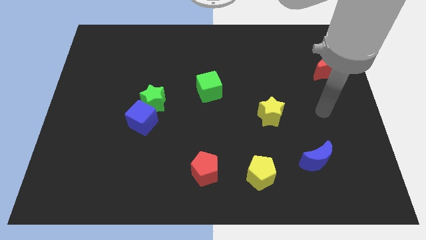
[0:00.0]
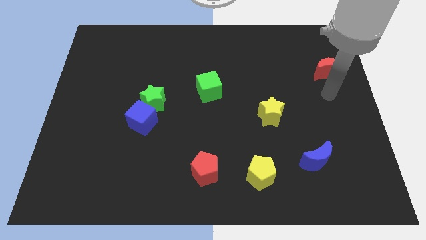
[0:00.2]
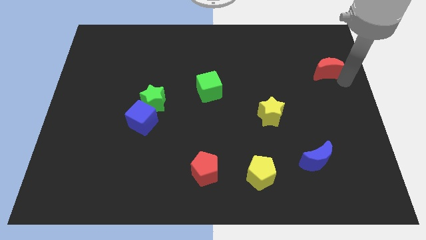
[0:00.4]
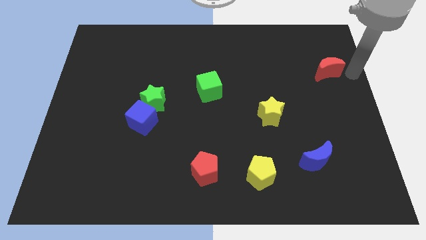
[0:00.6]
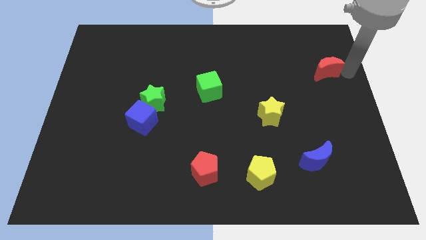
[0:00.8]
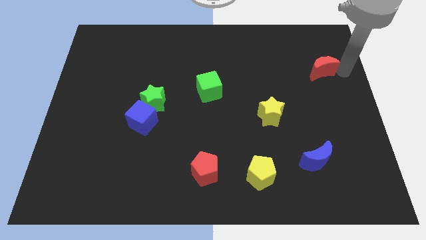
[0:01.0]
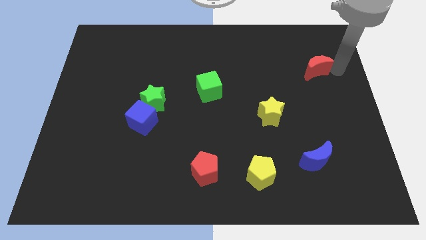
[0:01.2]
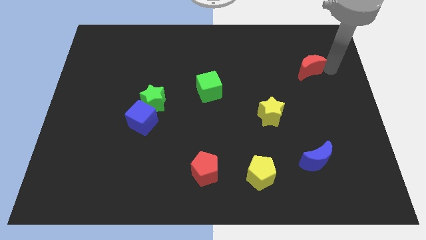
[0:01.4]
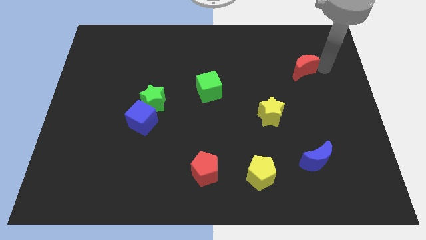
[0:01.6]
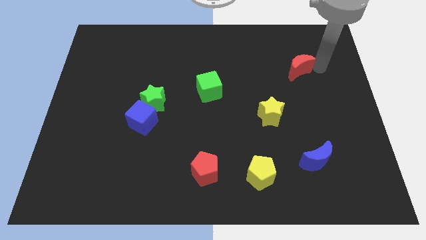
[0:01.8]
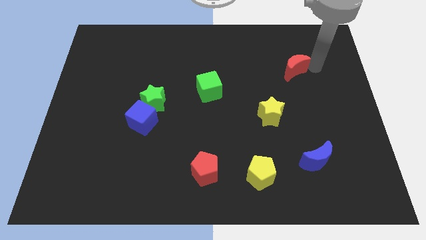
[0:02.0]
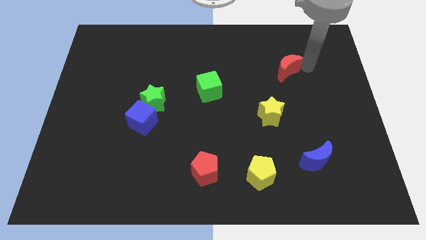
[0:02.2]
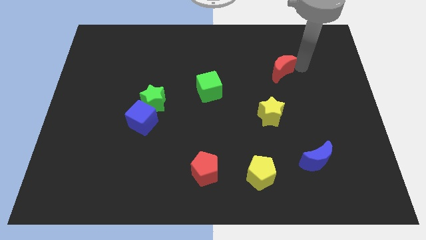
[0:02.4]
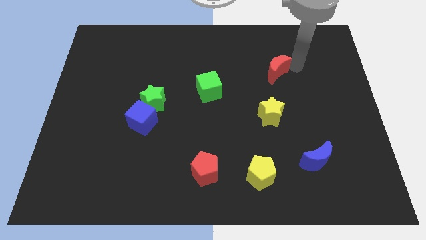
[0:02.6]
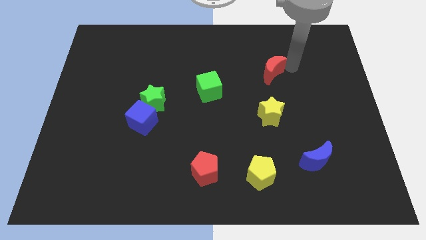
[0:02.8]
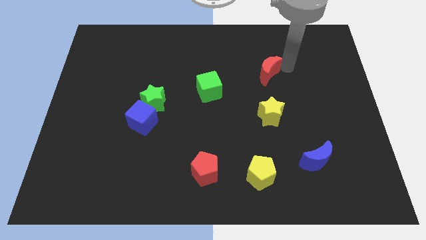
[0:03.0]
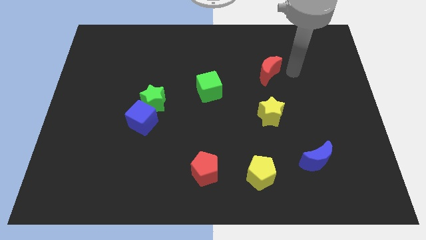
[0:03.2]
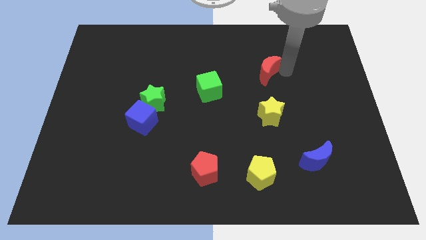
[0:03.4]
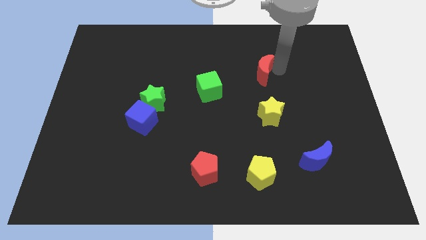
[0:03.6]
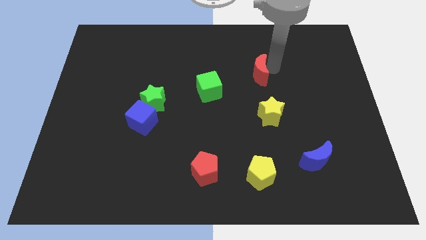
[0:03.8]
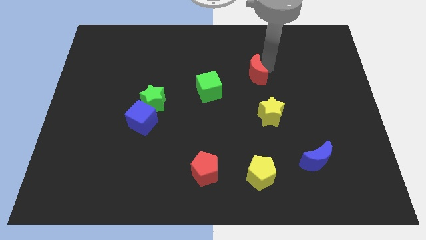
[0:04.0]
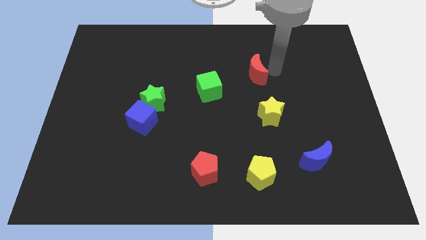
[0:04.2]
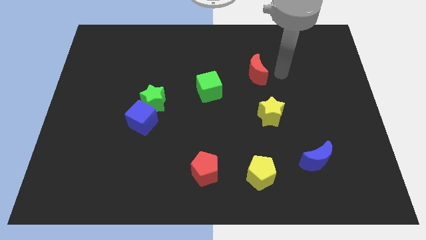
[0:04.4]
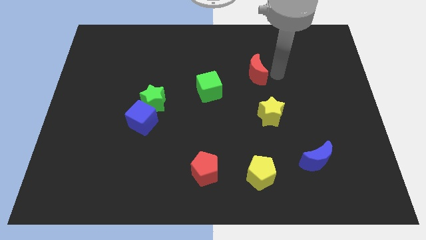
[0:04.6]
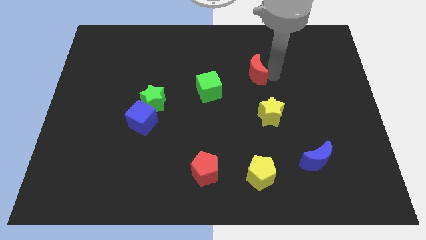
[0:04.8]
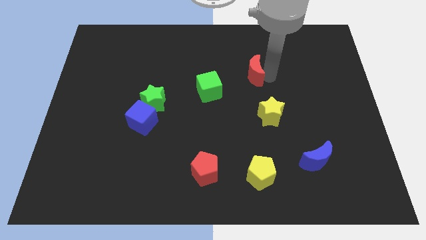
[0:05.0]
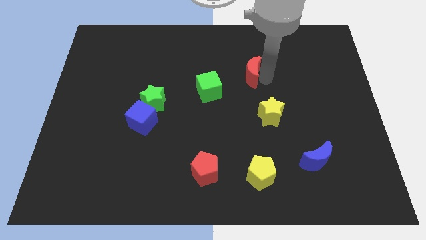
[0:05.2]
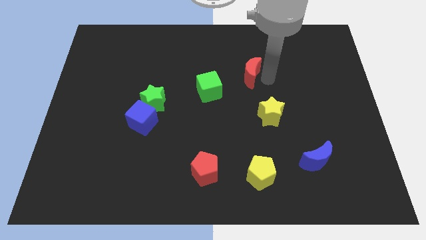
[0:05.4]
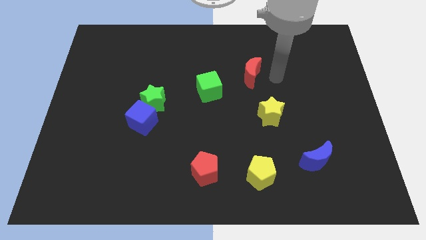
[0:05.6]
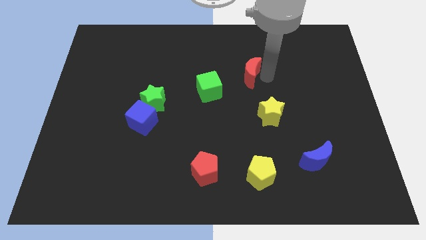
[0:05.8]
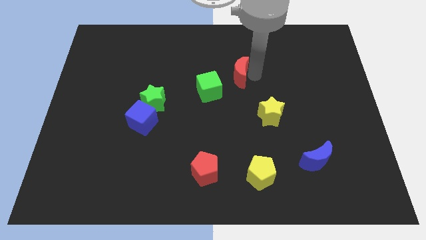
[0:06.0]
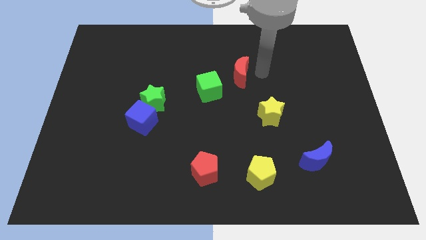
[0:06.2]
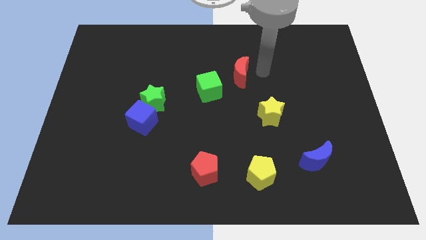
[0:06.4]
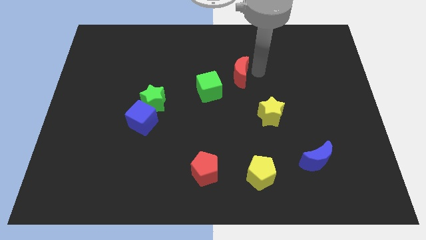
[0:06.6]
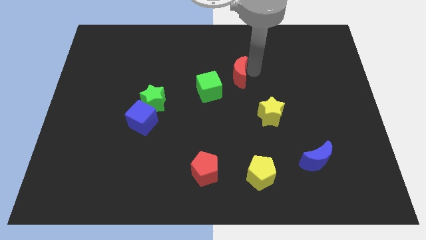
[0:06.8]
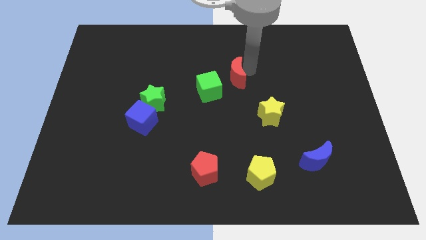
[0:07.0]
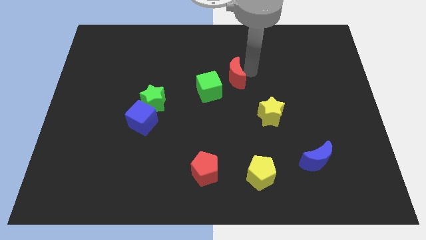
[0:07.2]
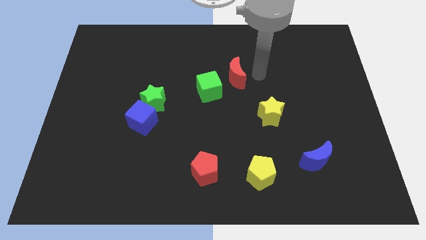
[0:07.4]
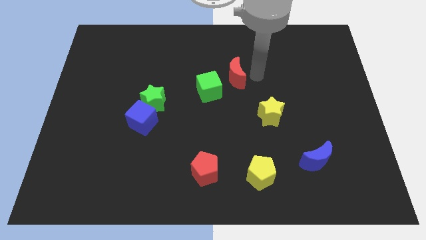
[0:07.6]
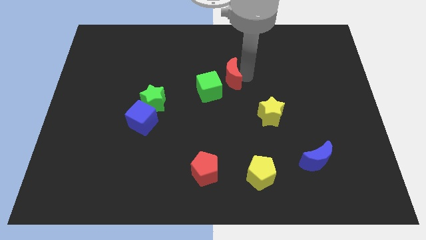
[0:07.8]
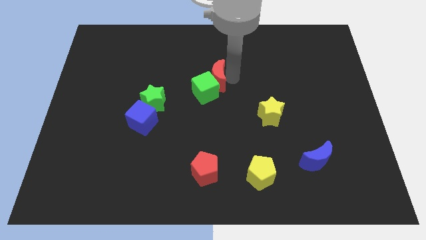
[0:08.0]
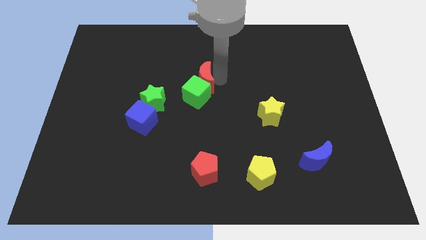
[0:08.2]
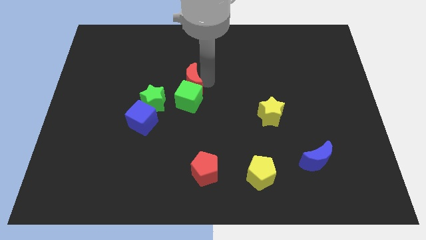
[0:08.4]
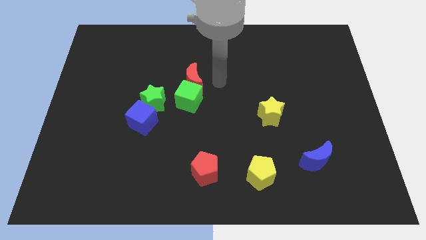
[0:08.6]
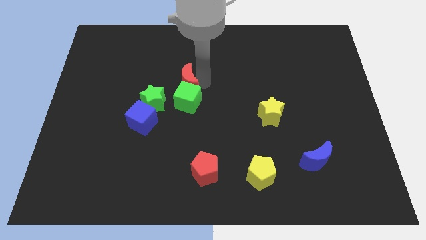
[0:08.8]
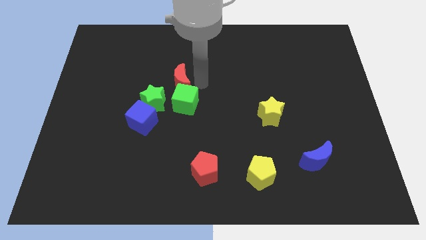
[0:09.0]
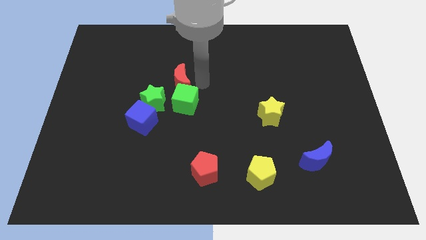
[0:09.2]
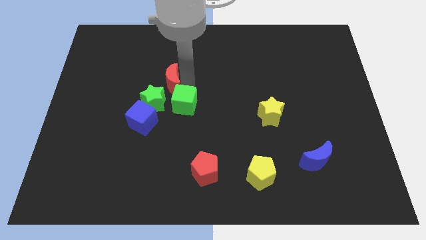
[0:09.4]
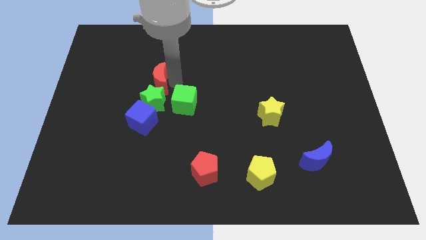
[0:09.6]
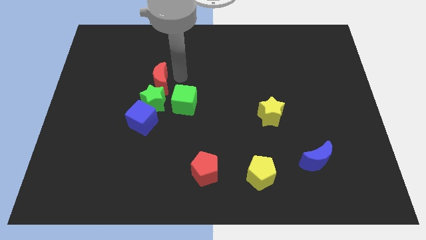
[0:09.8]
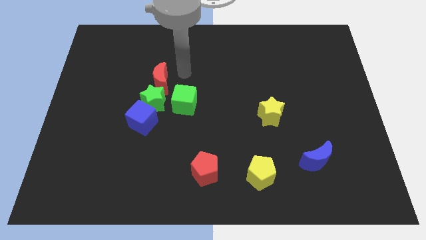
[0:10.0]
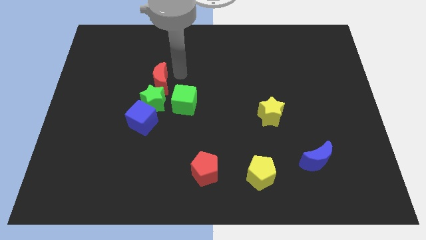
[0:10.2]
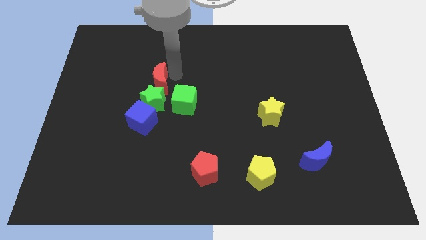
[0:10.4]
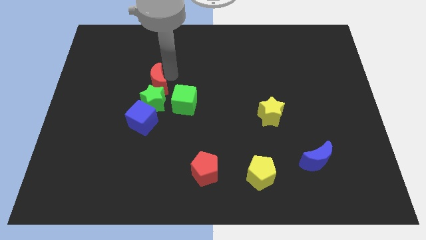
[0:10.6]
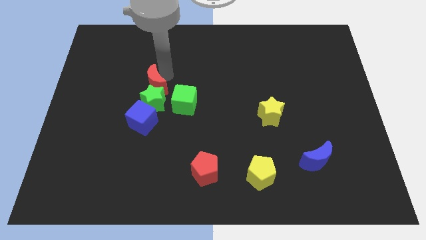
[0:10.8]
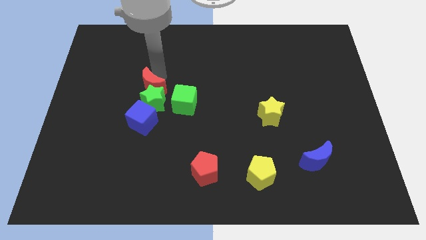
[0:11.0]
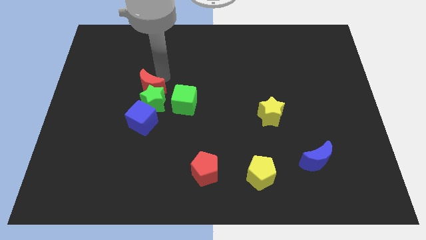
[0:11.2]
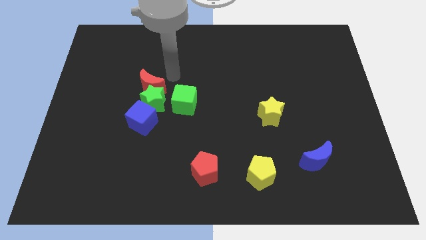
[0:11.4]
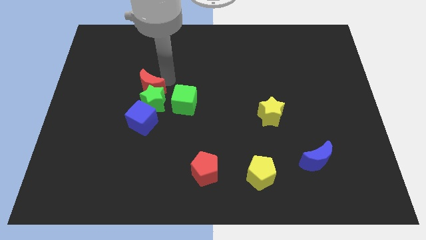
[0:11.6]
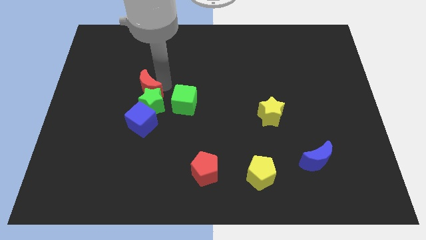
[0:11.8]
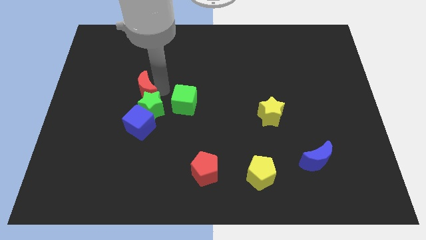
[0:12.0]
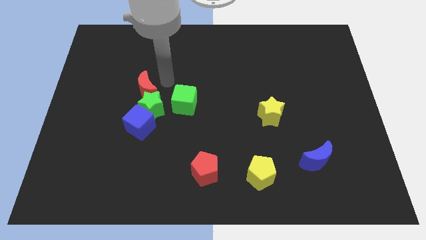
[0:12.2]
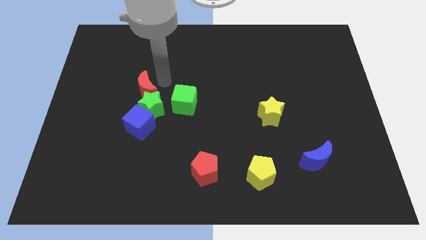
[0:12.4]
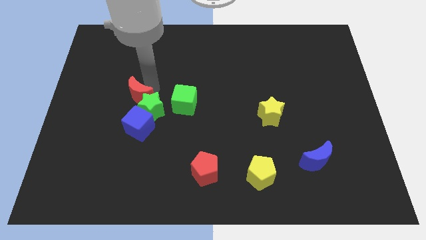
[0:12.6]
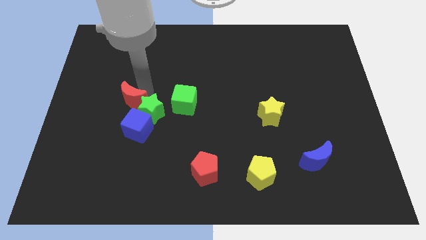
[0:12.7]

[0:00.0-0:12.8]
move the red moon to the top left of the blue cube
